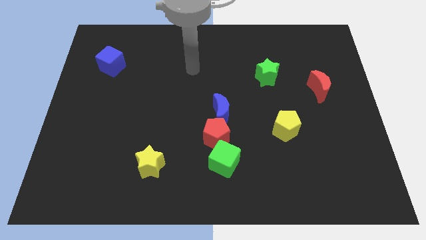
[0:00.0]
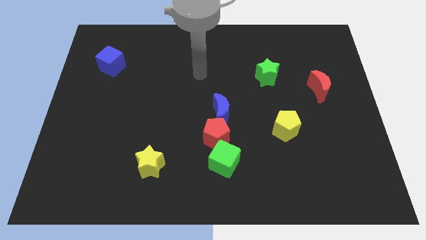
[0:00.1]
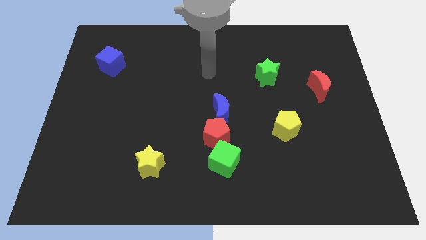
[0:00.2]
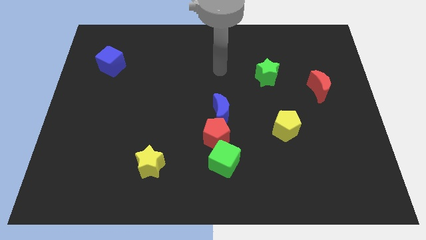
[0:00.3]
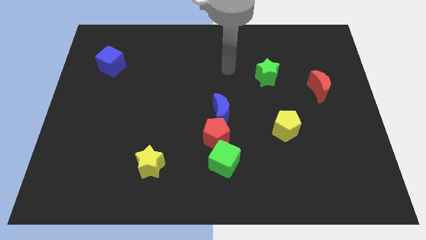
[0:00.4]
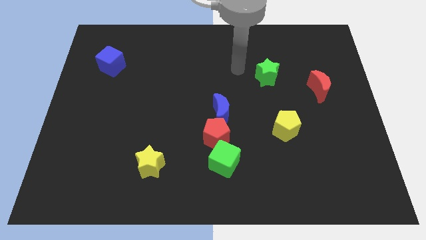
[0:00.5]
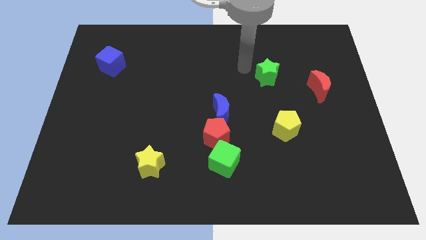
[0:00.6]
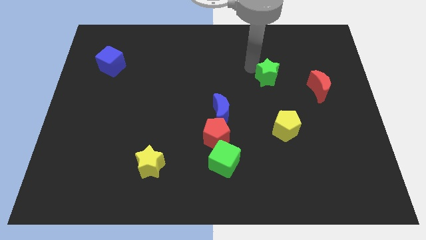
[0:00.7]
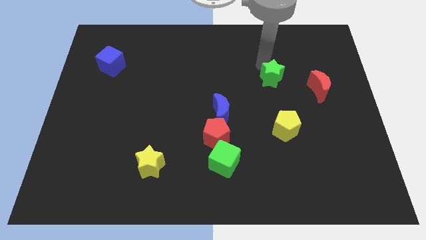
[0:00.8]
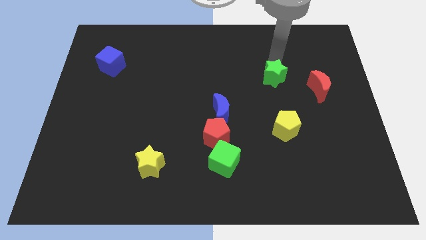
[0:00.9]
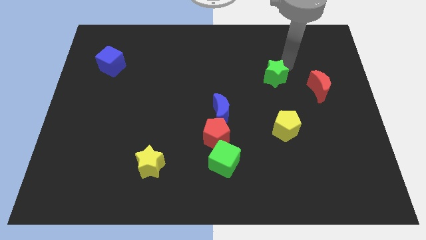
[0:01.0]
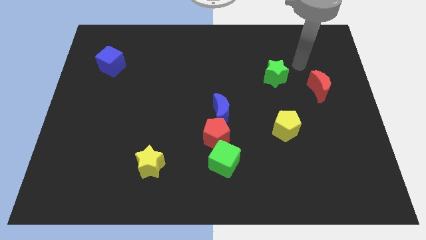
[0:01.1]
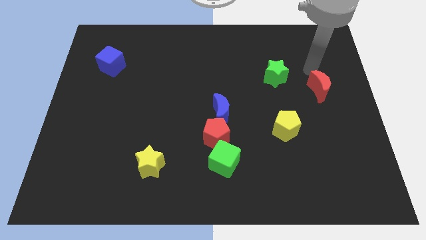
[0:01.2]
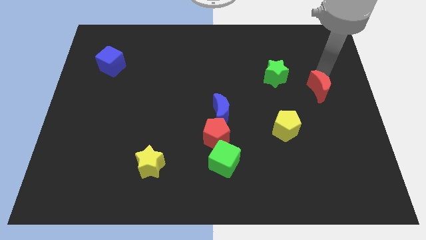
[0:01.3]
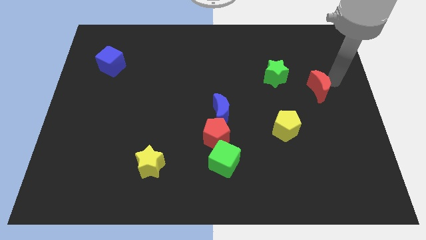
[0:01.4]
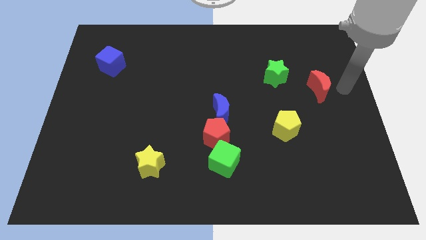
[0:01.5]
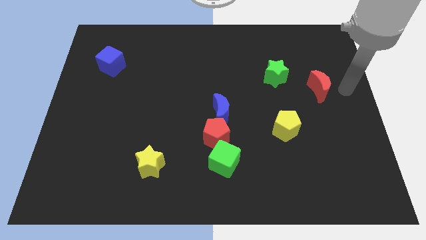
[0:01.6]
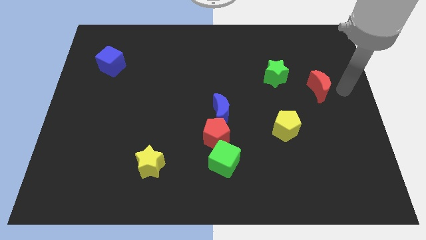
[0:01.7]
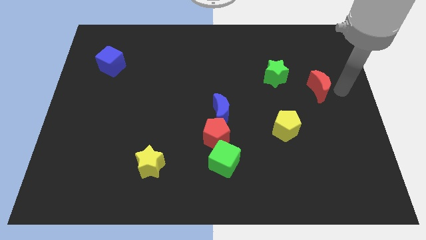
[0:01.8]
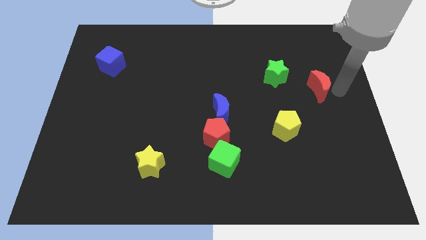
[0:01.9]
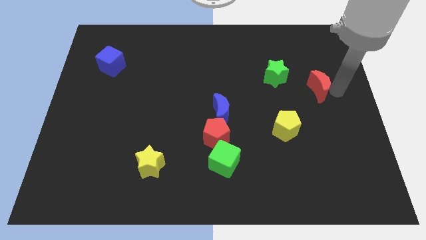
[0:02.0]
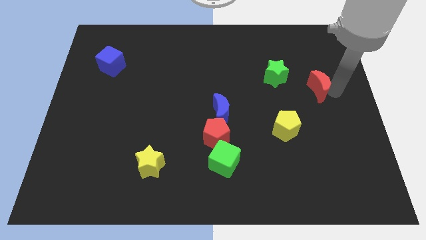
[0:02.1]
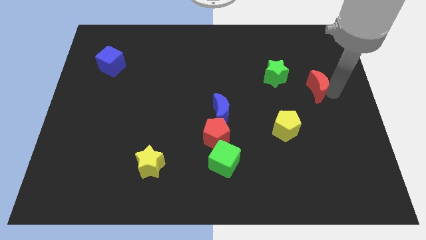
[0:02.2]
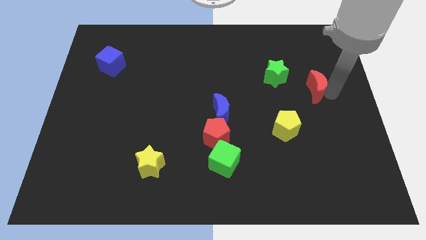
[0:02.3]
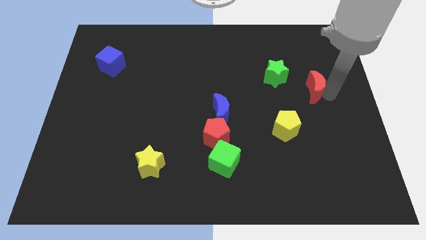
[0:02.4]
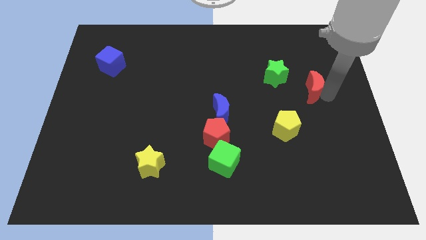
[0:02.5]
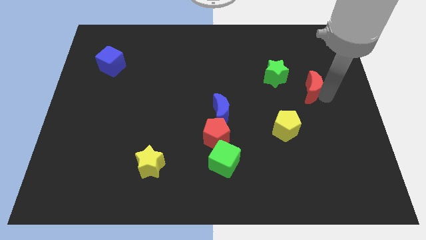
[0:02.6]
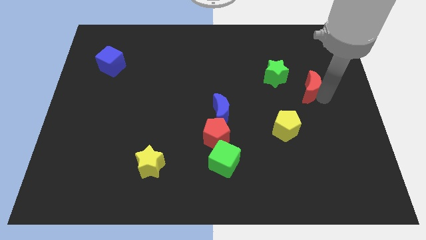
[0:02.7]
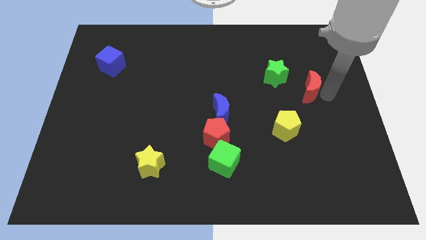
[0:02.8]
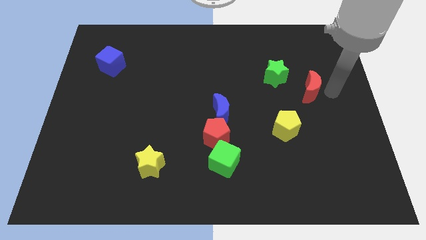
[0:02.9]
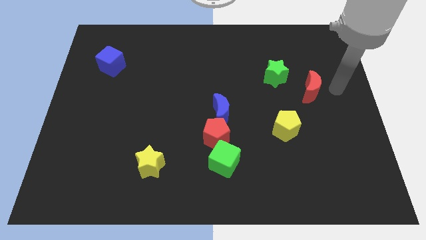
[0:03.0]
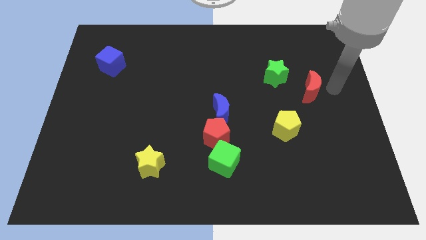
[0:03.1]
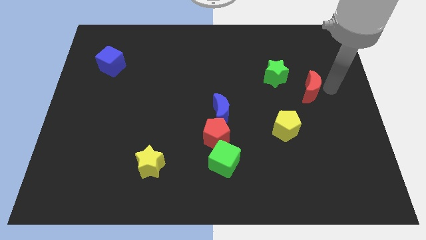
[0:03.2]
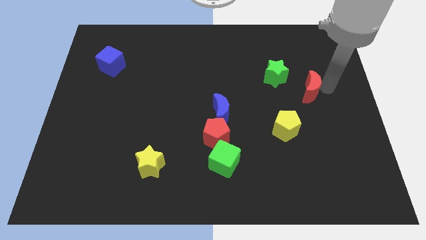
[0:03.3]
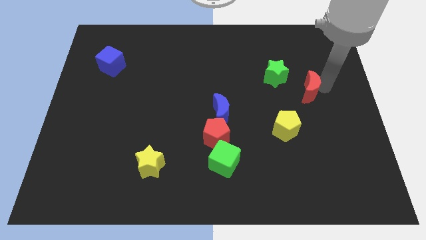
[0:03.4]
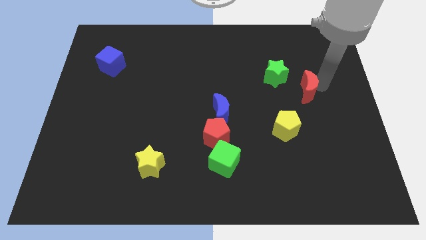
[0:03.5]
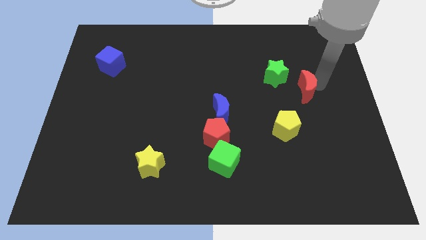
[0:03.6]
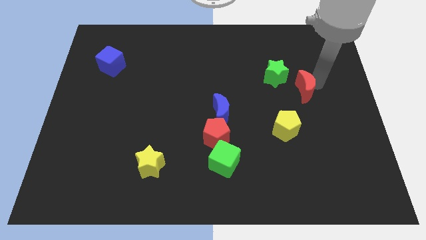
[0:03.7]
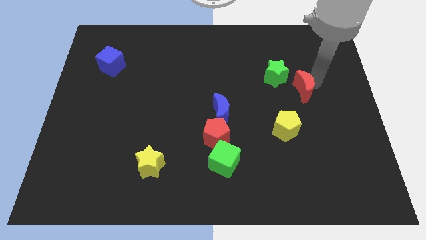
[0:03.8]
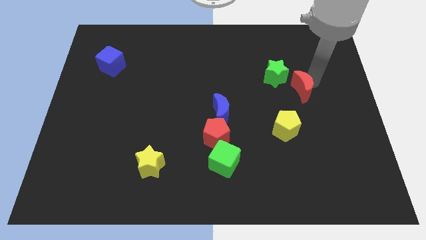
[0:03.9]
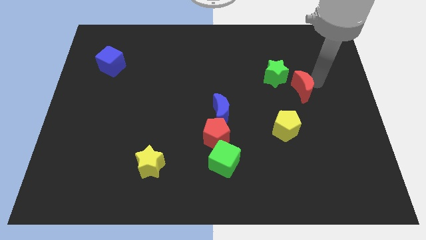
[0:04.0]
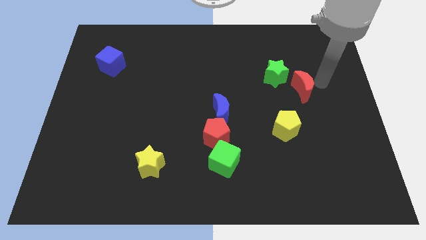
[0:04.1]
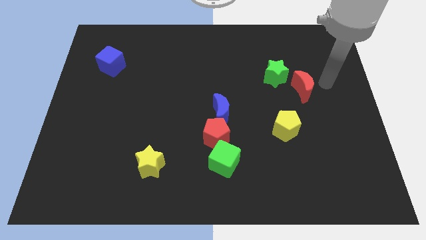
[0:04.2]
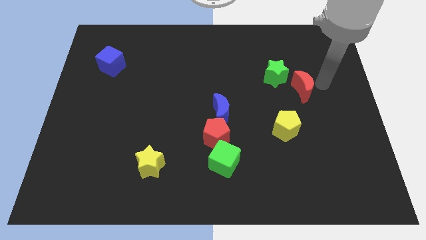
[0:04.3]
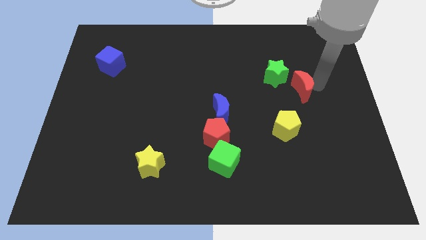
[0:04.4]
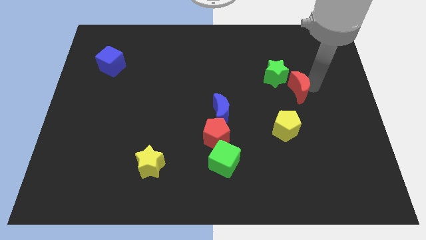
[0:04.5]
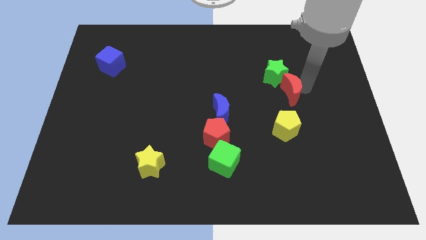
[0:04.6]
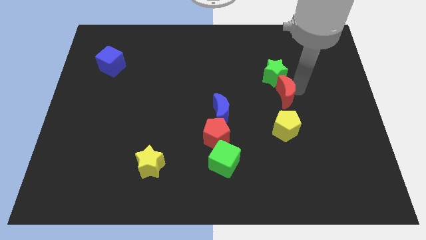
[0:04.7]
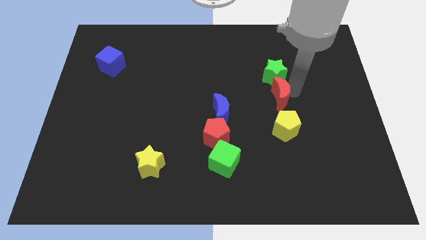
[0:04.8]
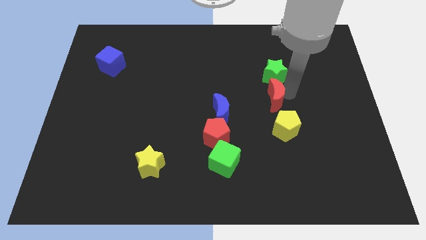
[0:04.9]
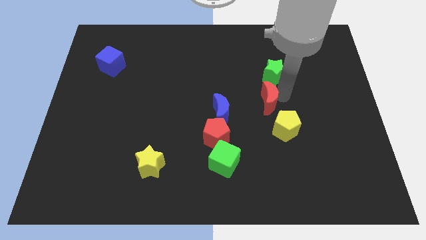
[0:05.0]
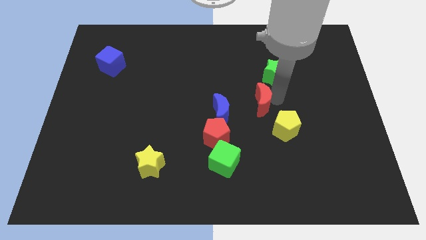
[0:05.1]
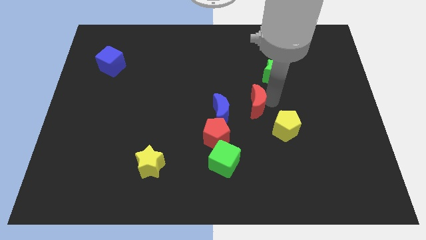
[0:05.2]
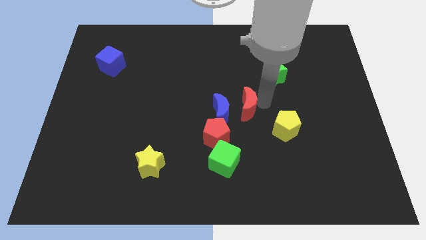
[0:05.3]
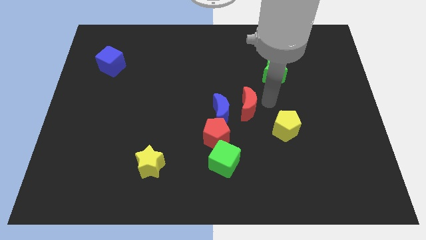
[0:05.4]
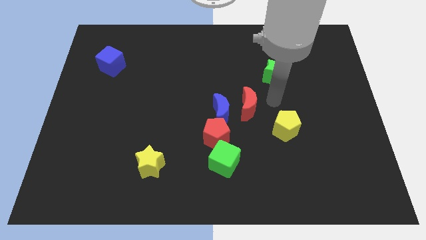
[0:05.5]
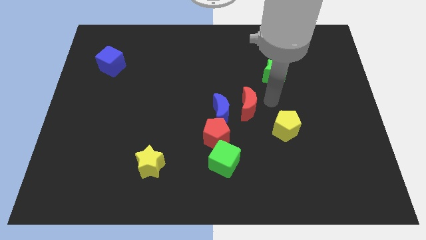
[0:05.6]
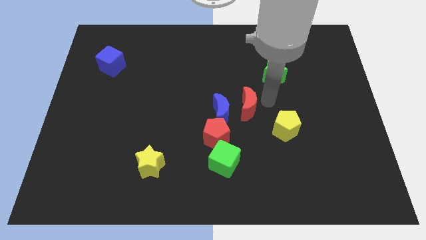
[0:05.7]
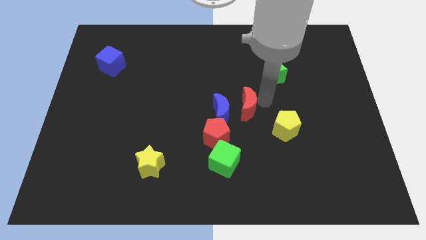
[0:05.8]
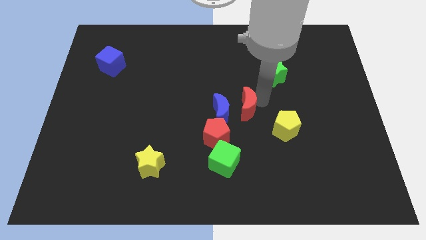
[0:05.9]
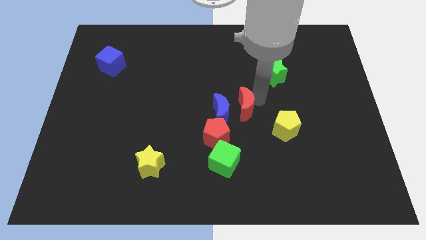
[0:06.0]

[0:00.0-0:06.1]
move the red moon to the blue moon

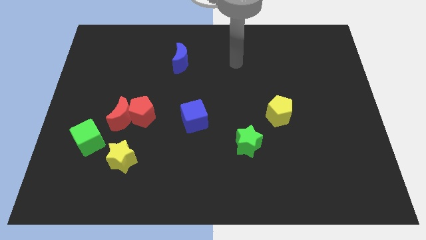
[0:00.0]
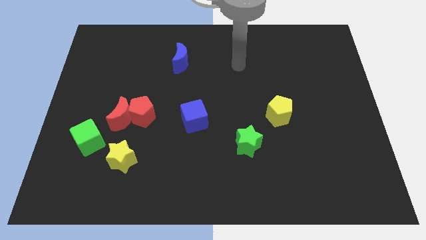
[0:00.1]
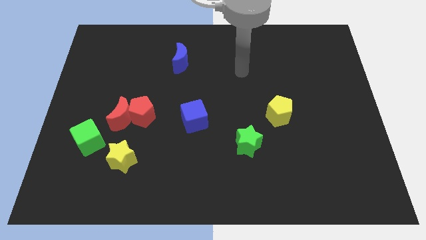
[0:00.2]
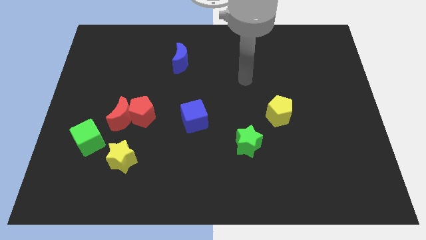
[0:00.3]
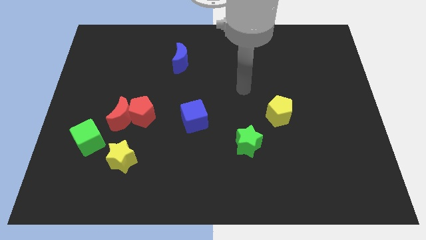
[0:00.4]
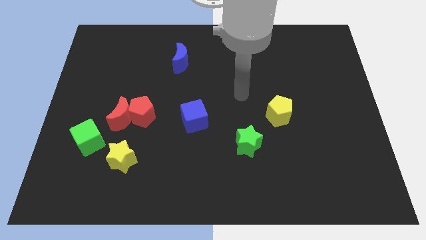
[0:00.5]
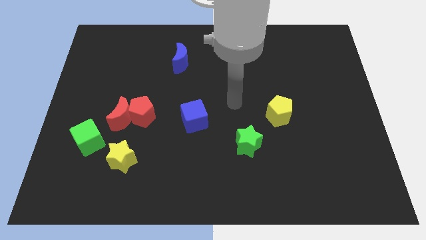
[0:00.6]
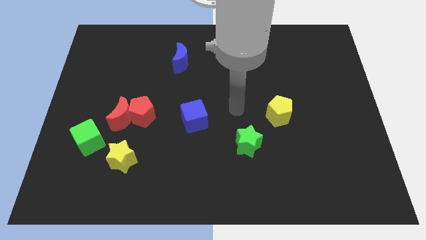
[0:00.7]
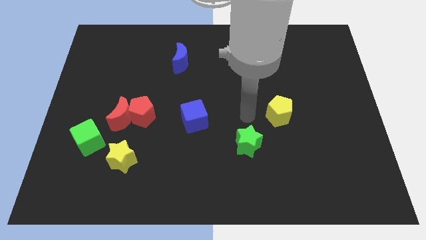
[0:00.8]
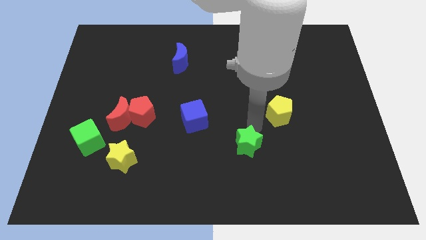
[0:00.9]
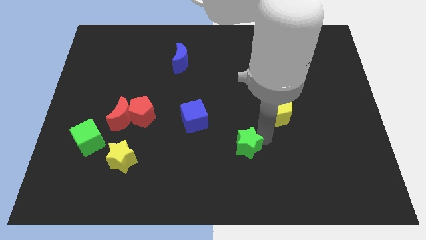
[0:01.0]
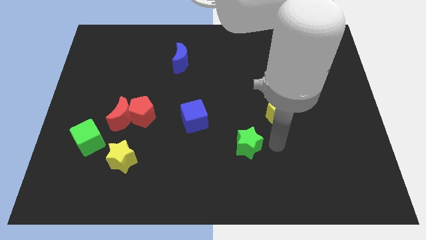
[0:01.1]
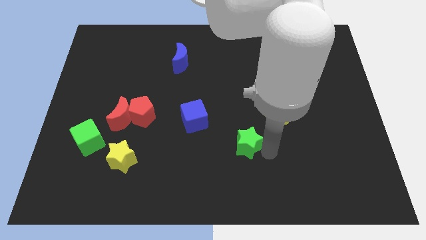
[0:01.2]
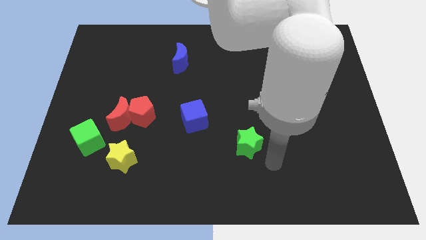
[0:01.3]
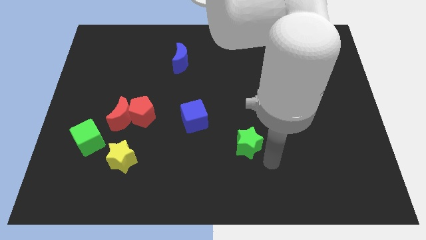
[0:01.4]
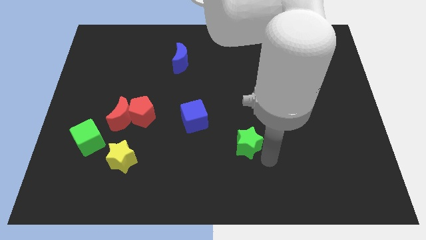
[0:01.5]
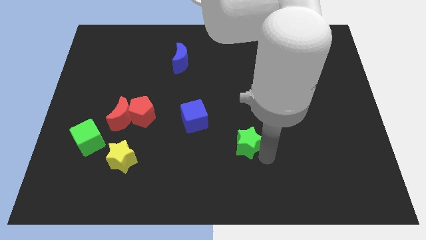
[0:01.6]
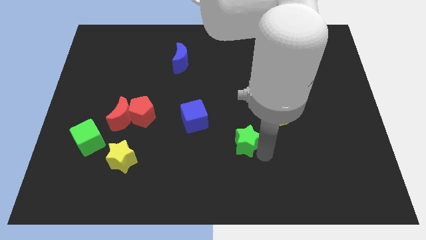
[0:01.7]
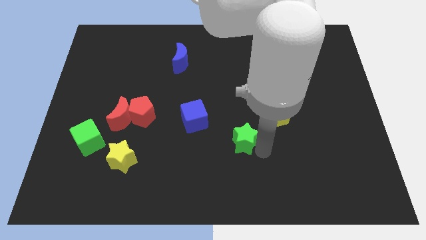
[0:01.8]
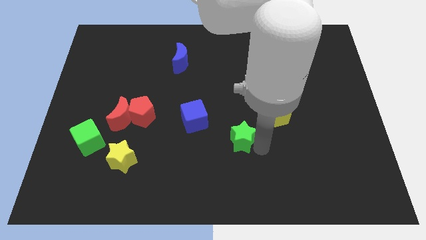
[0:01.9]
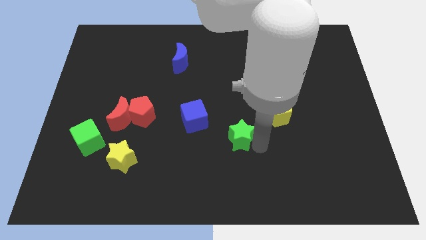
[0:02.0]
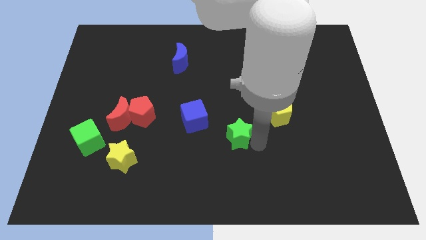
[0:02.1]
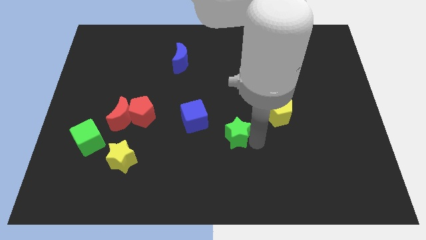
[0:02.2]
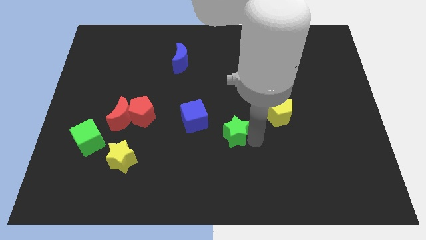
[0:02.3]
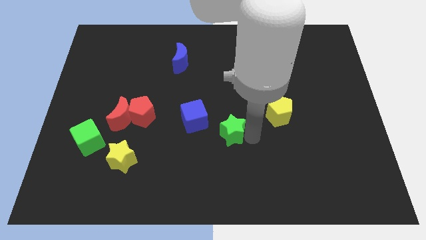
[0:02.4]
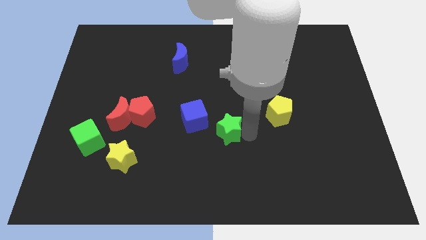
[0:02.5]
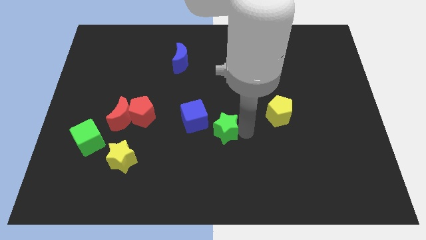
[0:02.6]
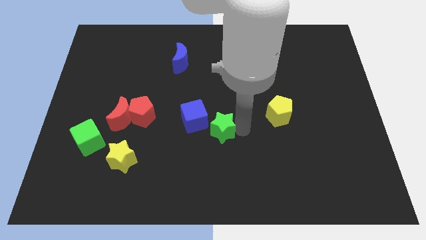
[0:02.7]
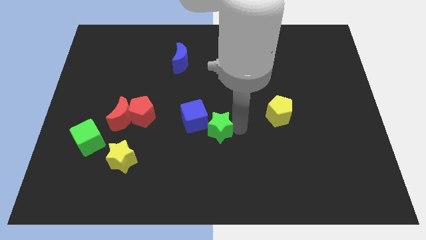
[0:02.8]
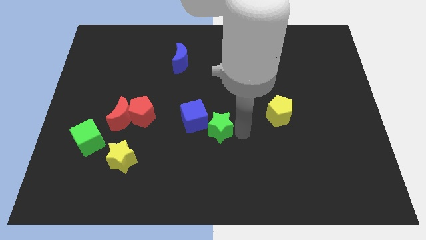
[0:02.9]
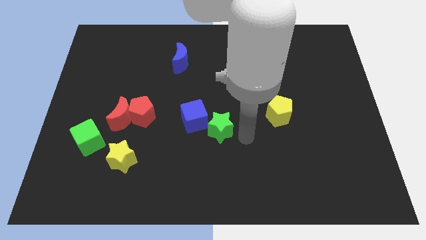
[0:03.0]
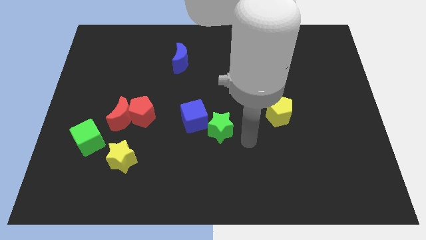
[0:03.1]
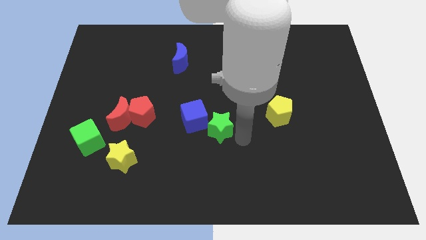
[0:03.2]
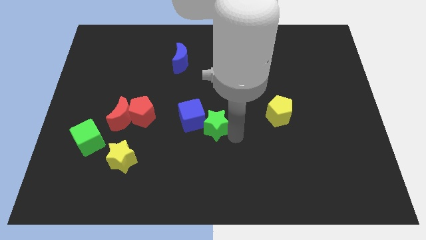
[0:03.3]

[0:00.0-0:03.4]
move the green star next to the blue cube
